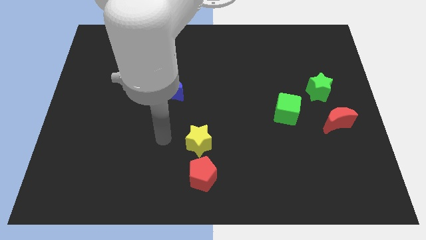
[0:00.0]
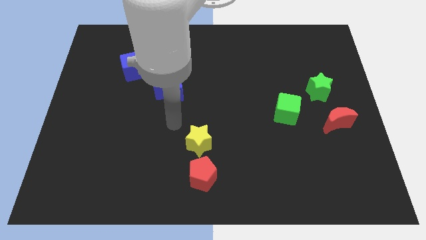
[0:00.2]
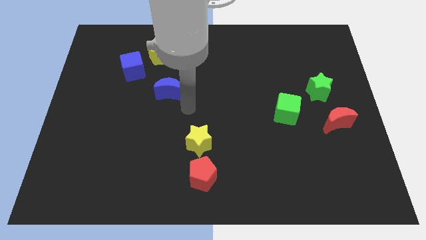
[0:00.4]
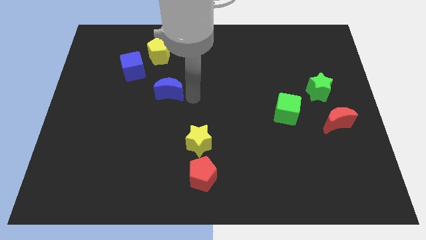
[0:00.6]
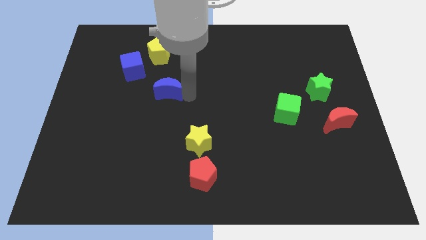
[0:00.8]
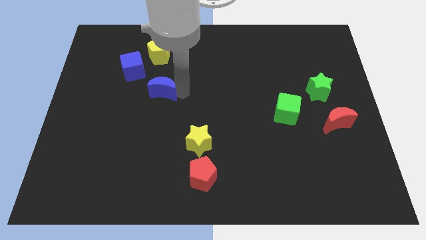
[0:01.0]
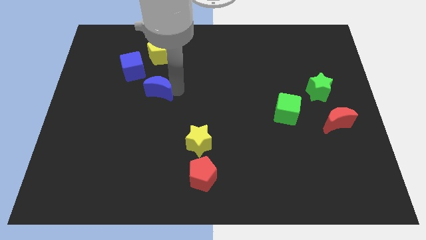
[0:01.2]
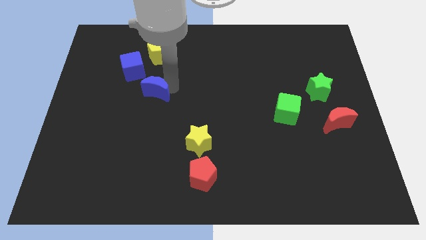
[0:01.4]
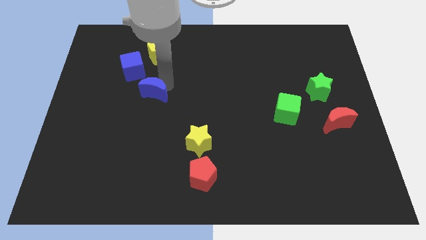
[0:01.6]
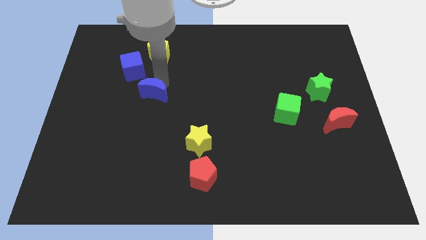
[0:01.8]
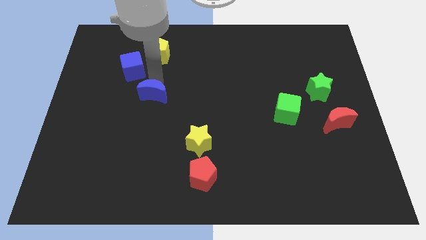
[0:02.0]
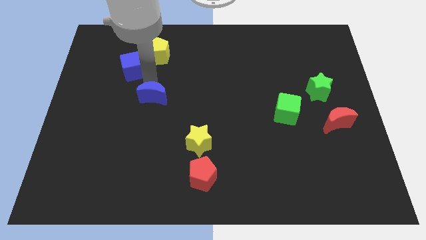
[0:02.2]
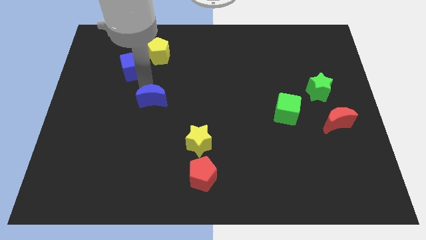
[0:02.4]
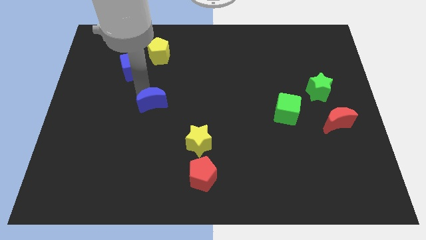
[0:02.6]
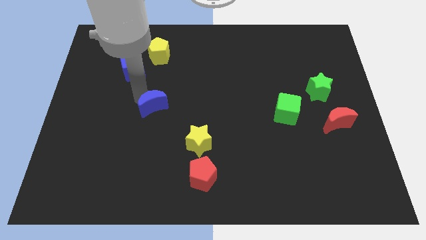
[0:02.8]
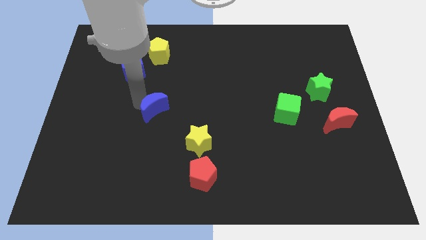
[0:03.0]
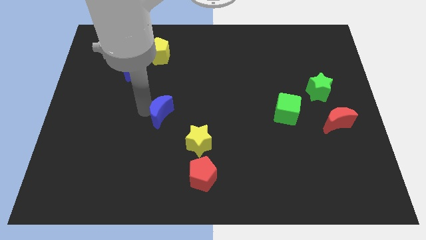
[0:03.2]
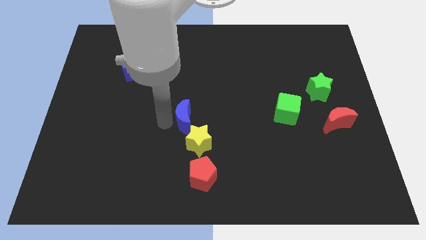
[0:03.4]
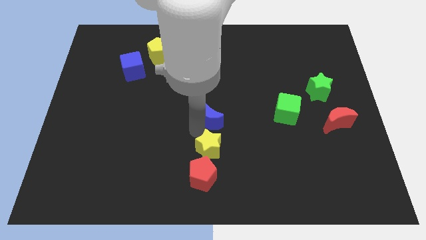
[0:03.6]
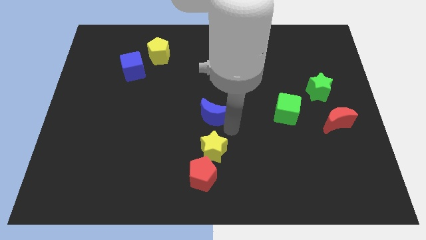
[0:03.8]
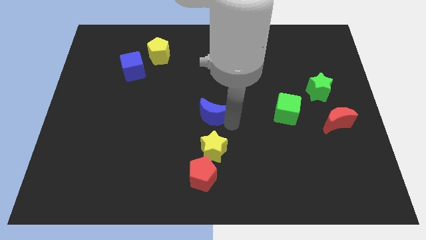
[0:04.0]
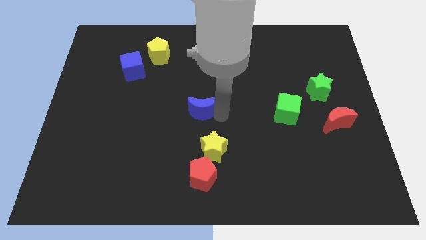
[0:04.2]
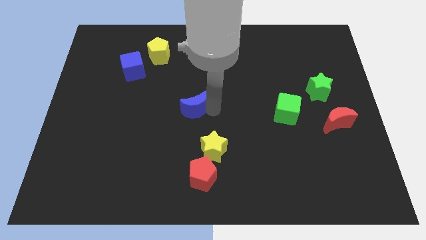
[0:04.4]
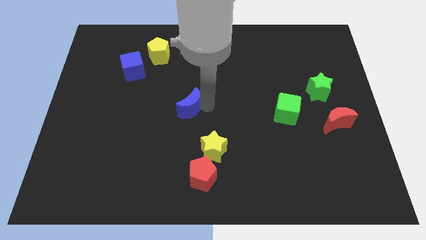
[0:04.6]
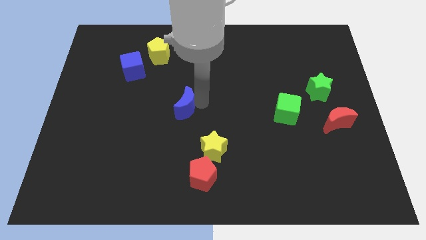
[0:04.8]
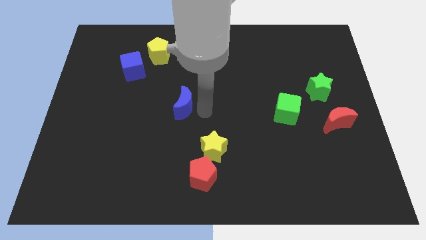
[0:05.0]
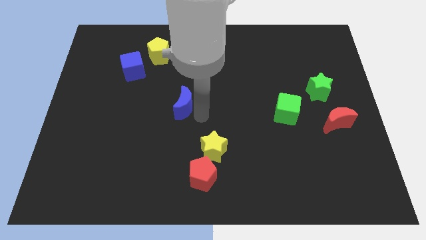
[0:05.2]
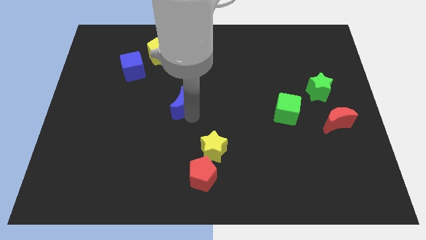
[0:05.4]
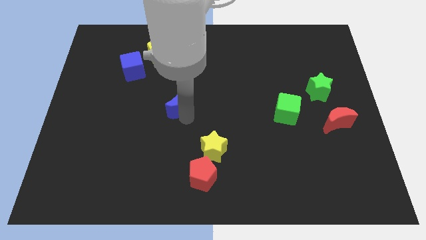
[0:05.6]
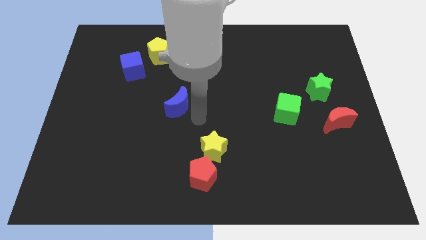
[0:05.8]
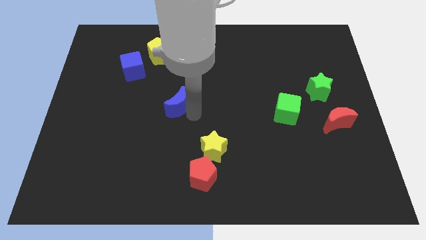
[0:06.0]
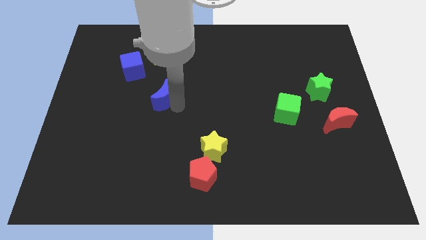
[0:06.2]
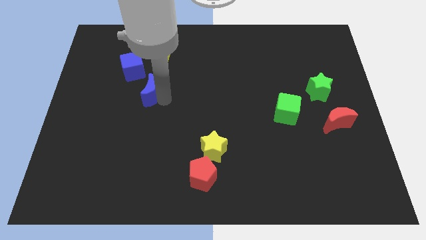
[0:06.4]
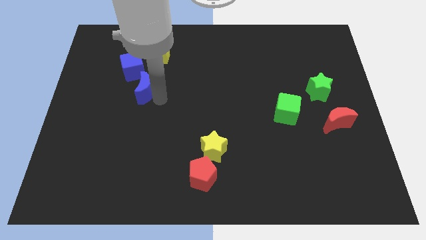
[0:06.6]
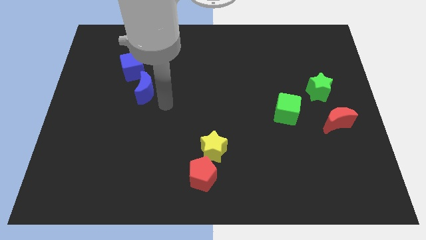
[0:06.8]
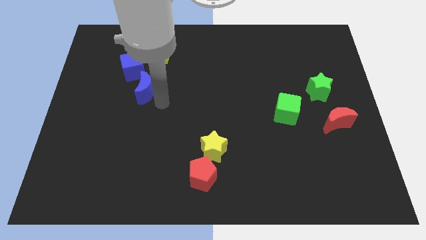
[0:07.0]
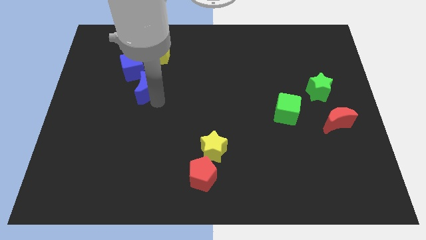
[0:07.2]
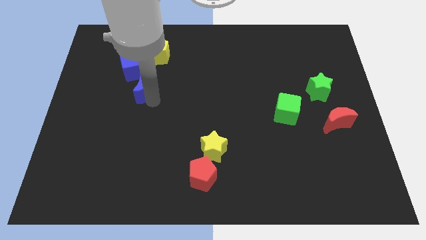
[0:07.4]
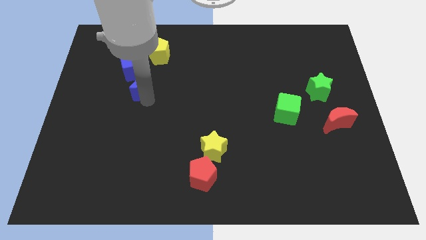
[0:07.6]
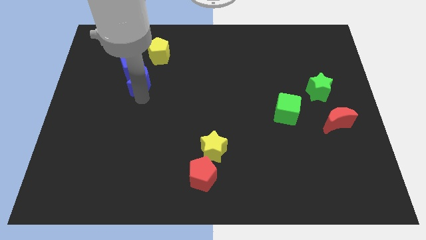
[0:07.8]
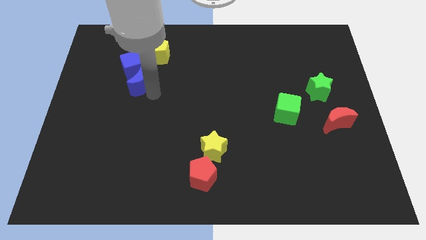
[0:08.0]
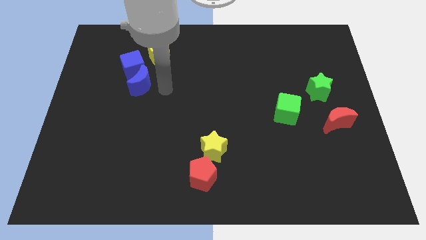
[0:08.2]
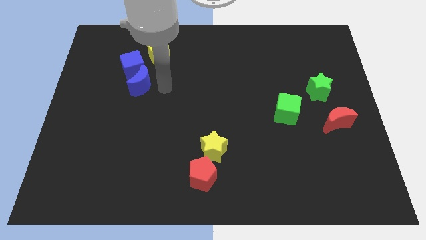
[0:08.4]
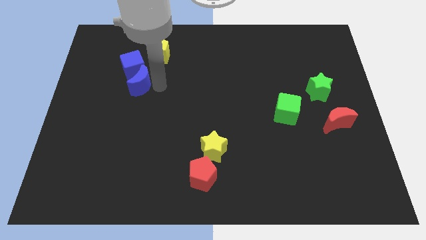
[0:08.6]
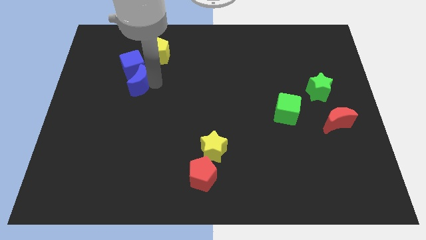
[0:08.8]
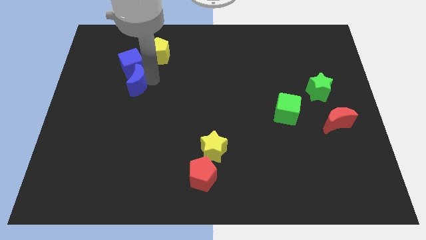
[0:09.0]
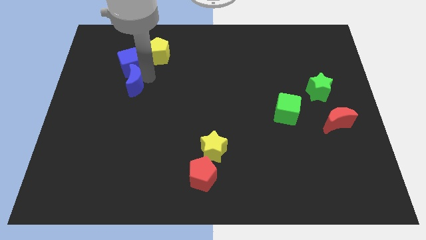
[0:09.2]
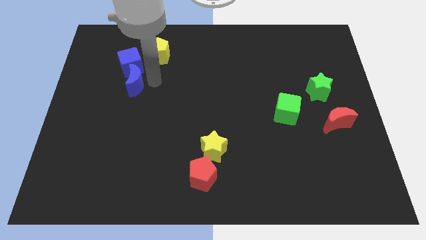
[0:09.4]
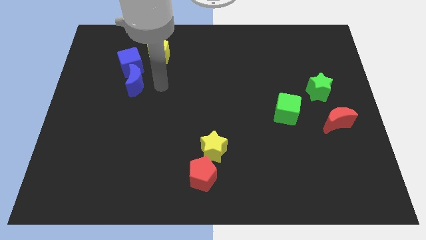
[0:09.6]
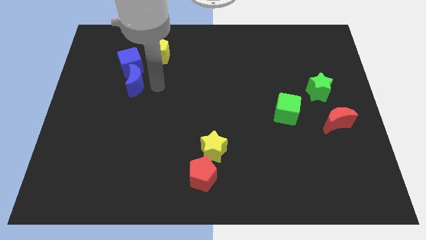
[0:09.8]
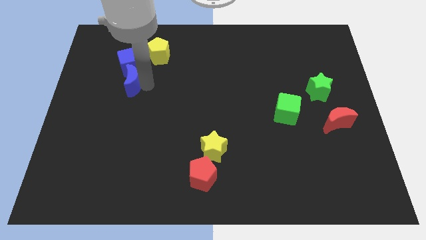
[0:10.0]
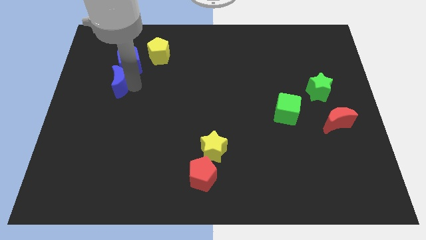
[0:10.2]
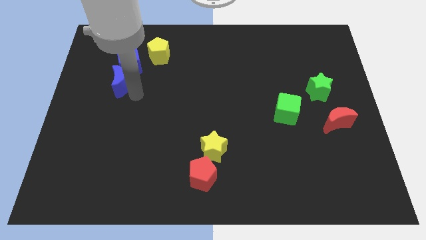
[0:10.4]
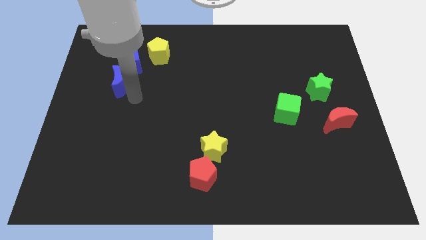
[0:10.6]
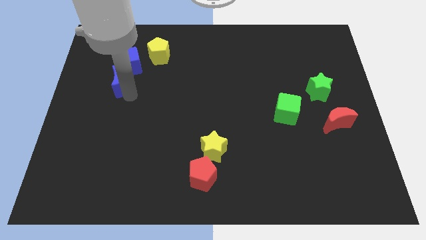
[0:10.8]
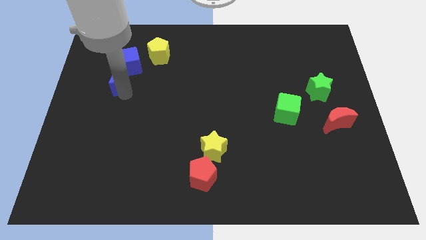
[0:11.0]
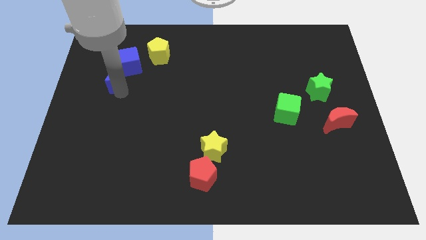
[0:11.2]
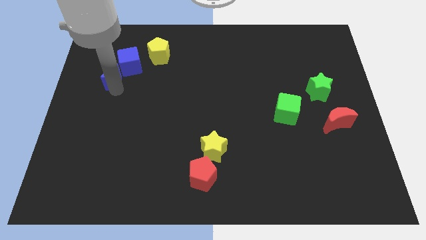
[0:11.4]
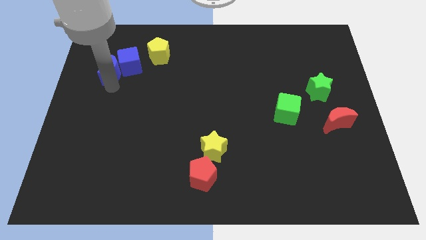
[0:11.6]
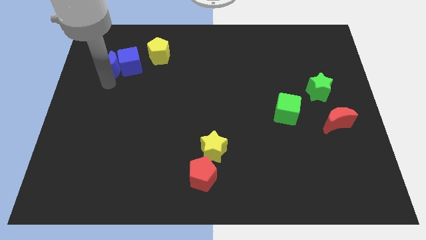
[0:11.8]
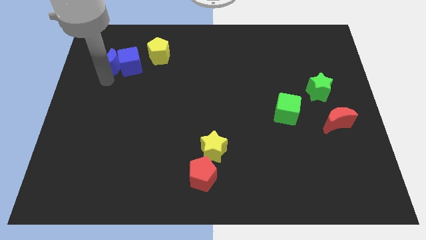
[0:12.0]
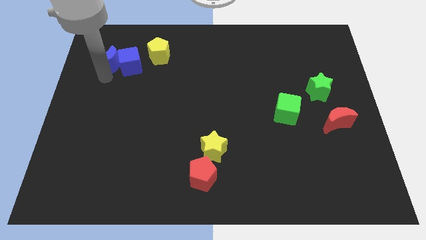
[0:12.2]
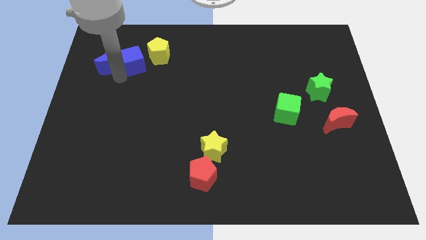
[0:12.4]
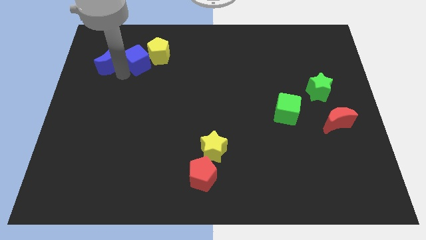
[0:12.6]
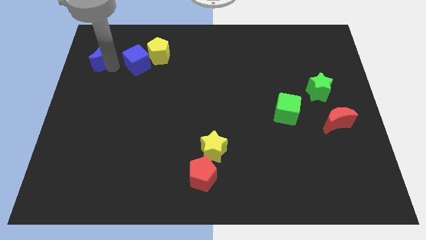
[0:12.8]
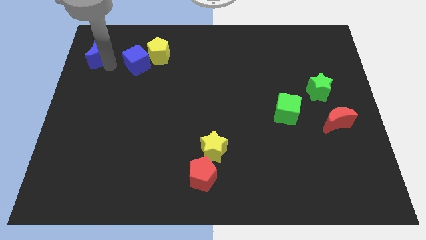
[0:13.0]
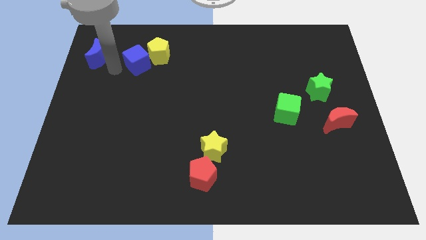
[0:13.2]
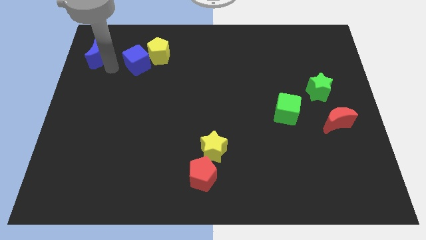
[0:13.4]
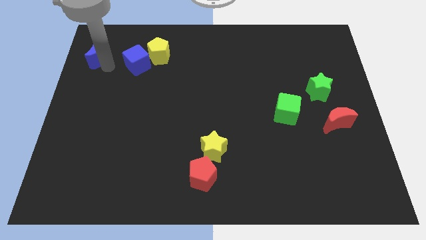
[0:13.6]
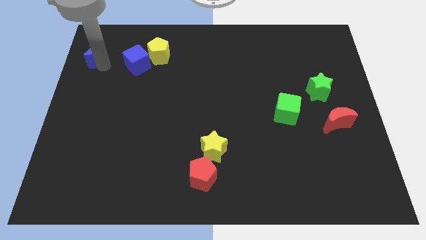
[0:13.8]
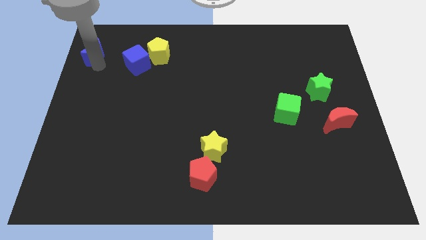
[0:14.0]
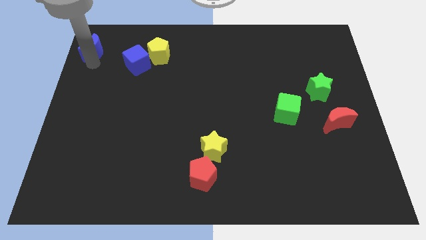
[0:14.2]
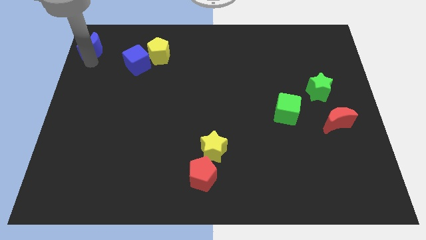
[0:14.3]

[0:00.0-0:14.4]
put the blue moon to the upper left corner
